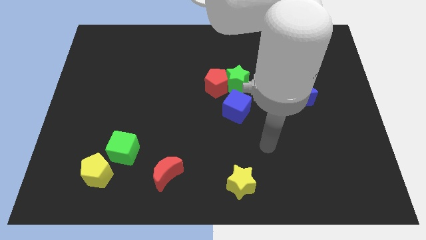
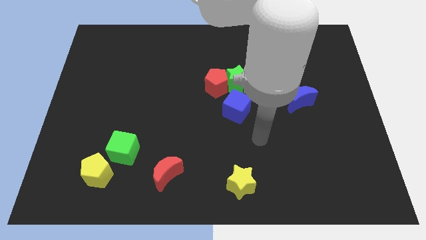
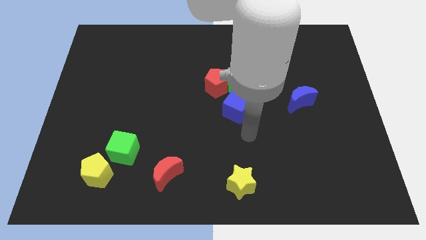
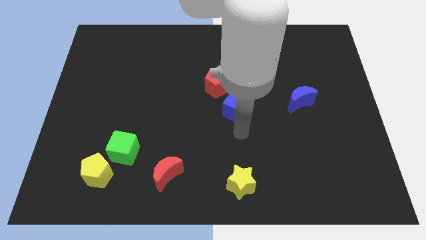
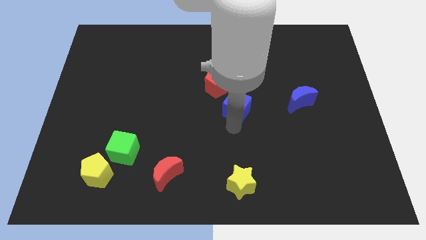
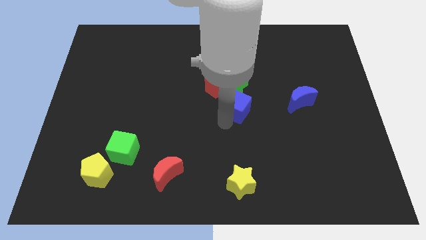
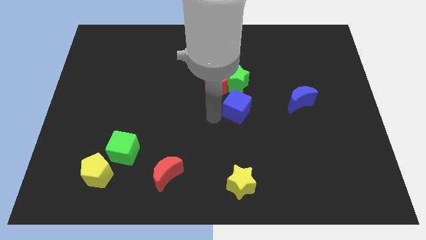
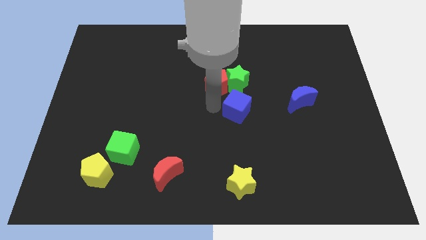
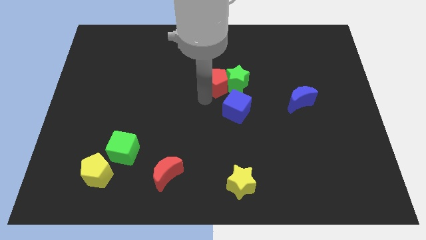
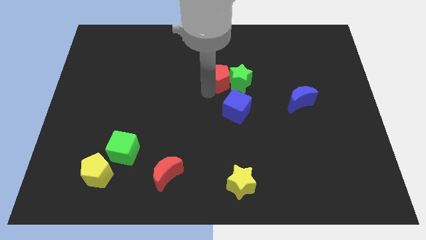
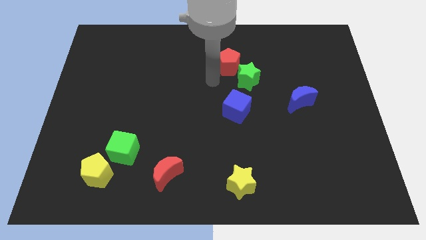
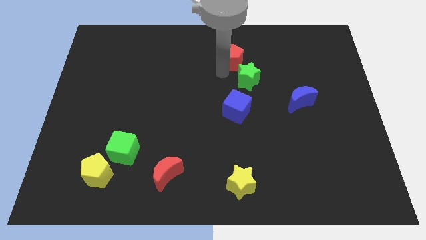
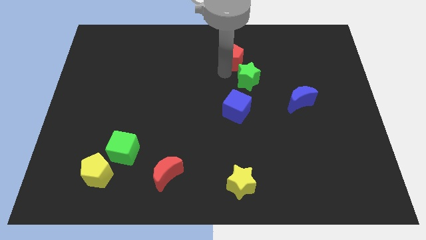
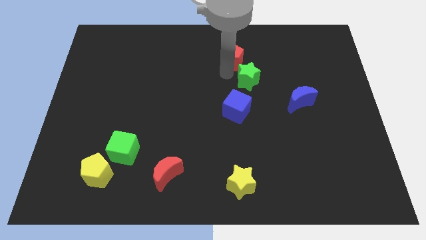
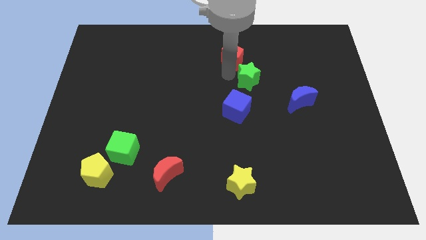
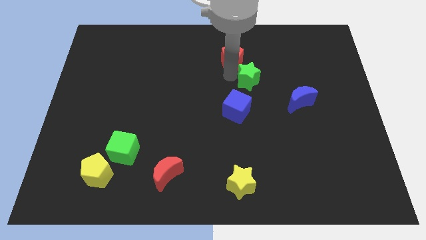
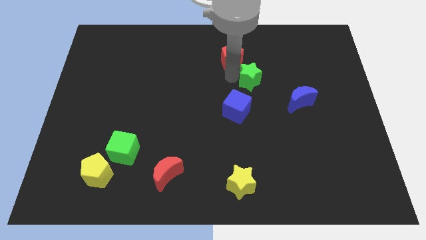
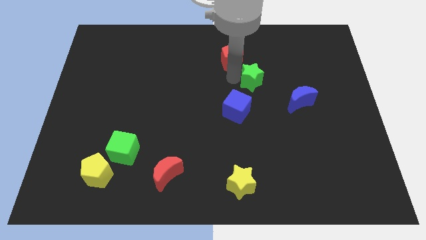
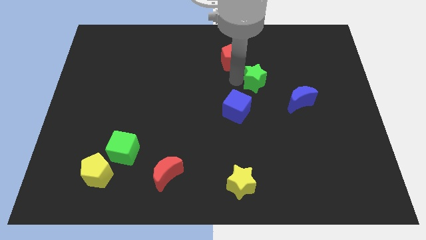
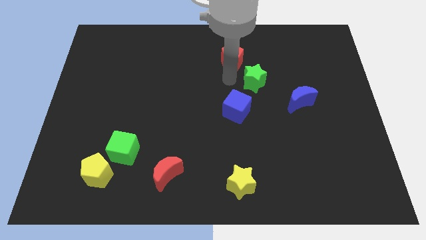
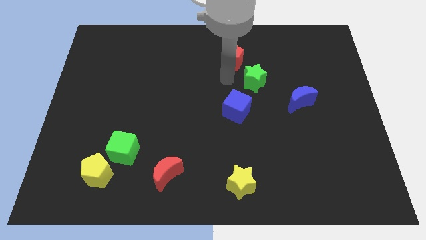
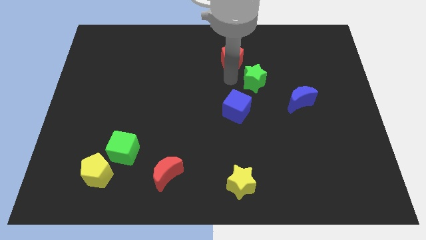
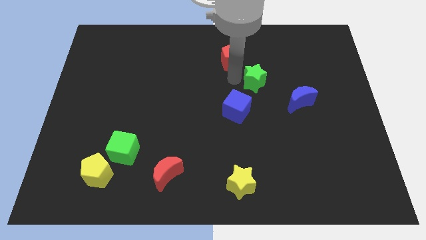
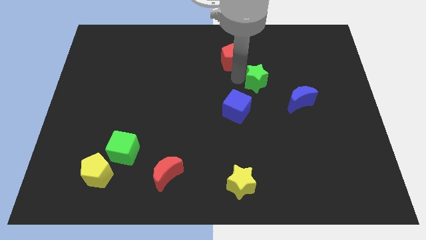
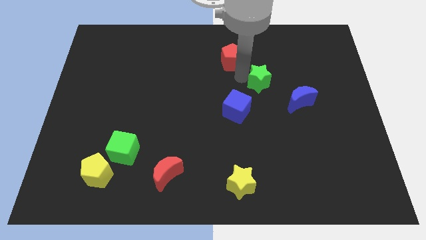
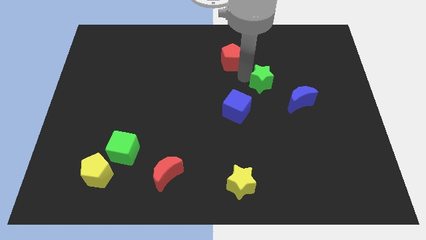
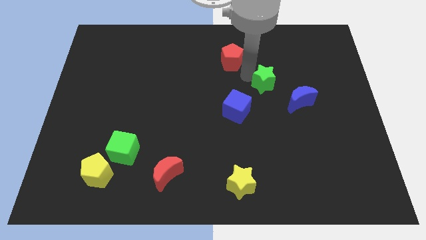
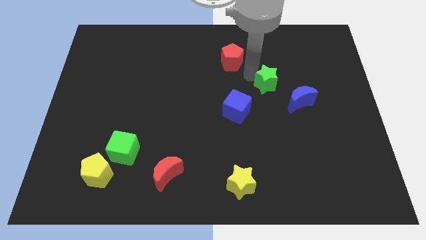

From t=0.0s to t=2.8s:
slightly slide the green star to the right

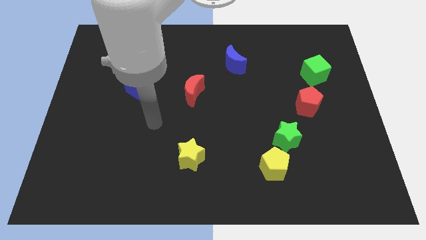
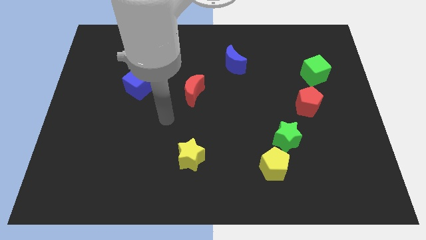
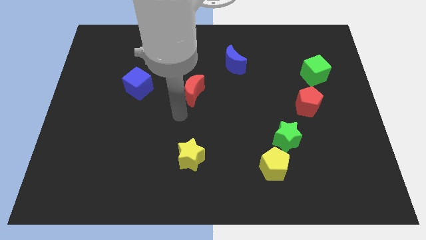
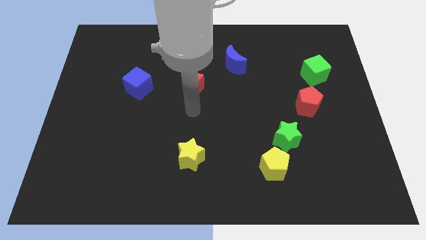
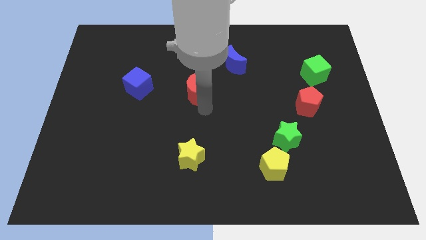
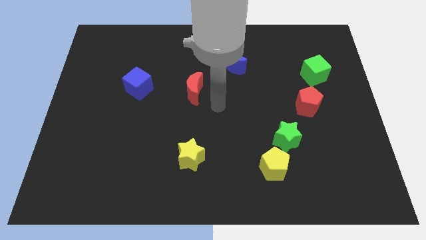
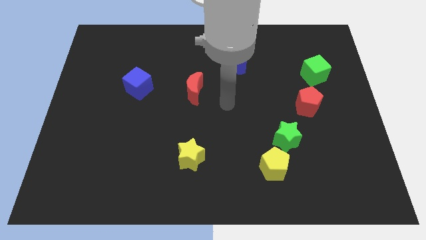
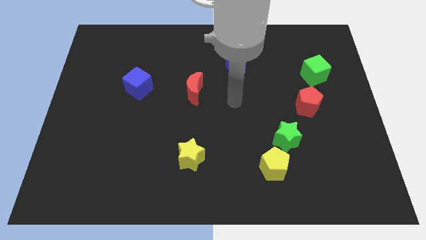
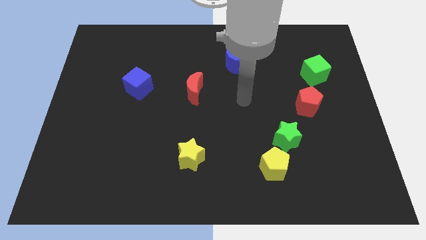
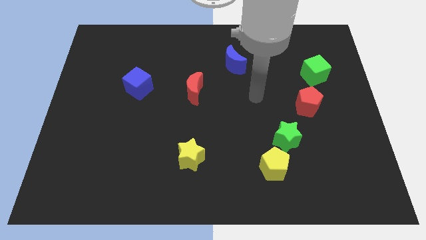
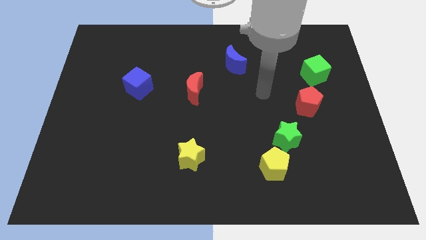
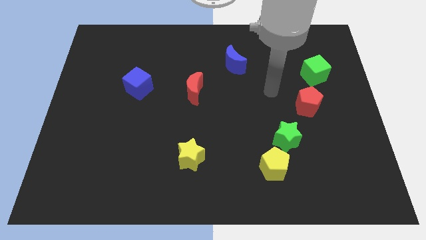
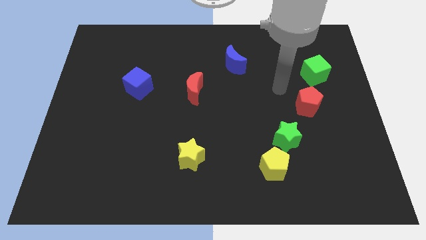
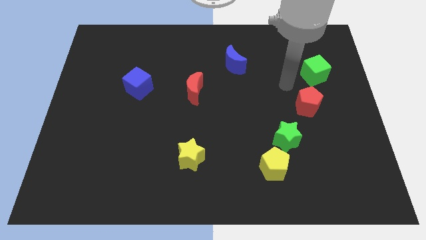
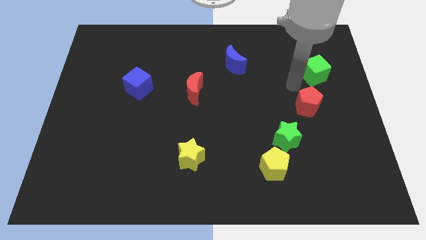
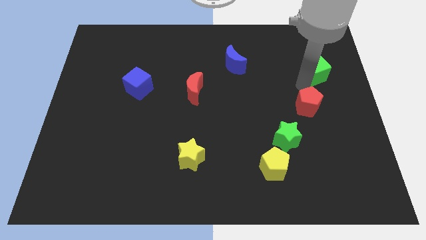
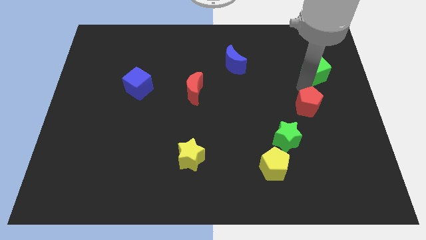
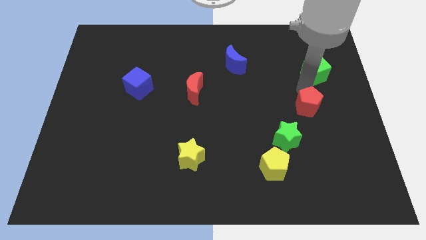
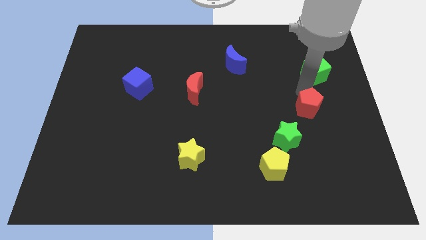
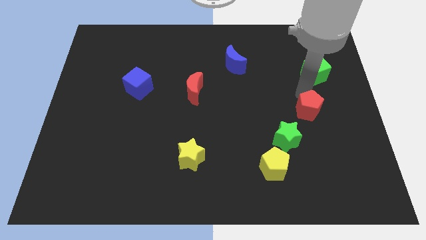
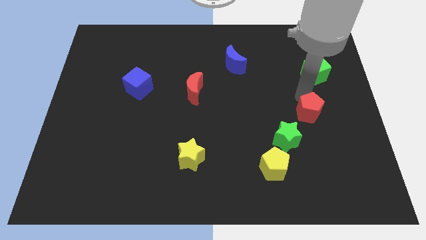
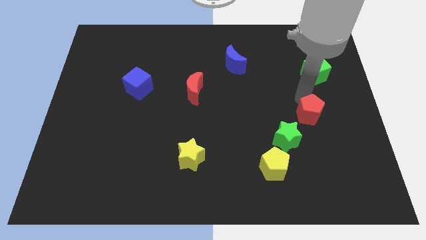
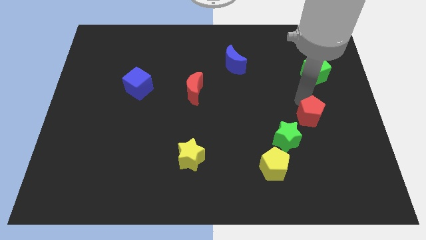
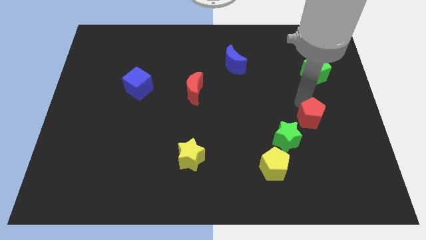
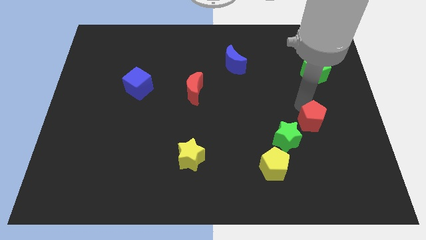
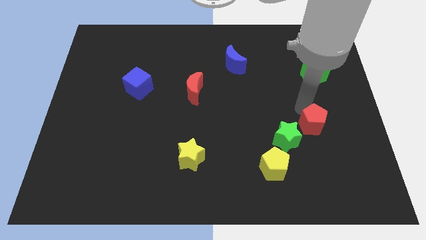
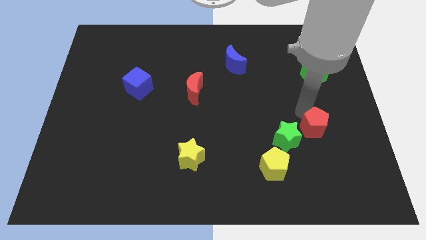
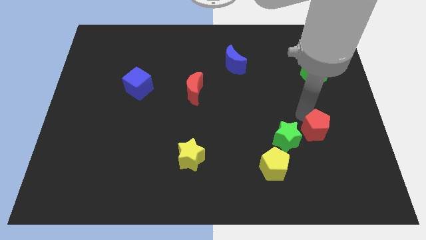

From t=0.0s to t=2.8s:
slightly slide the red pentagon down

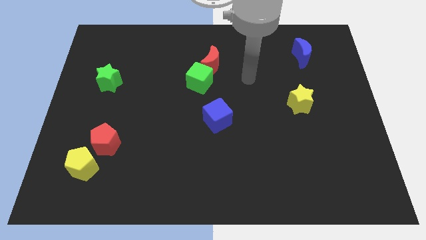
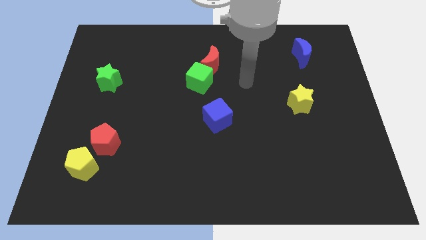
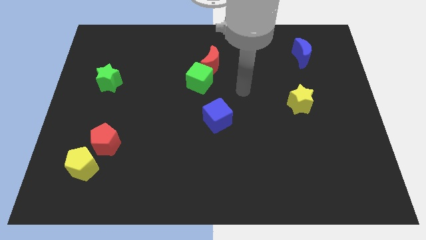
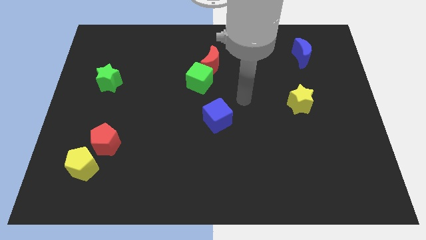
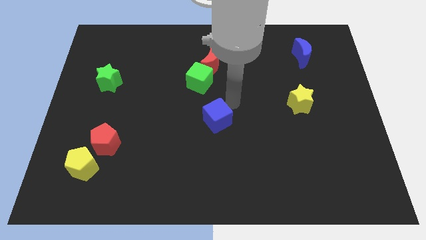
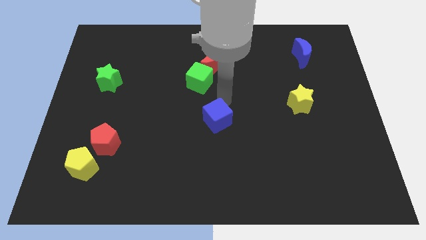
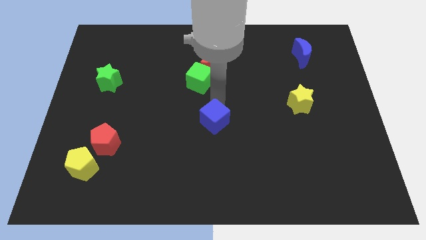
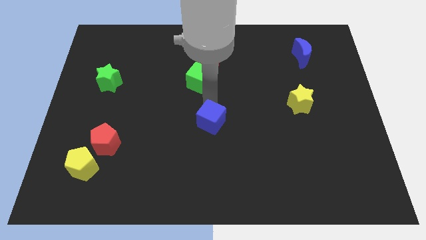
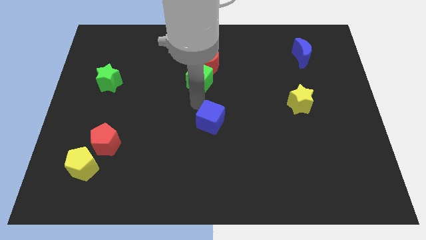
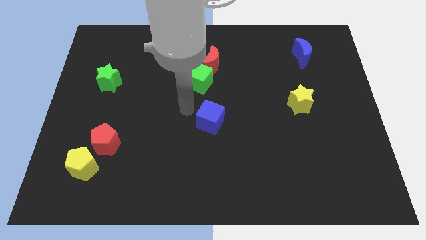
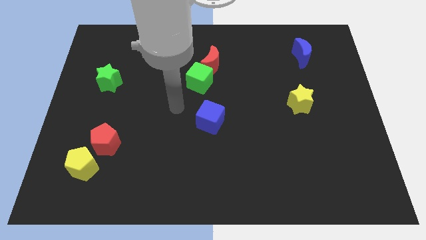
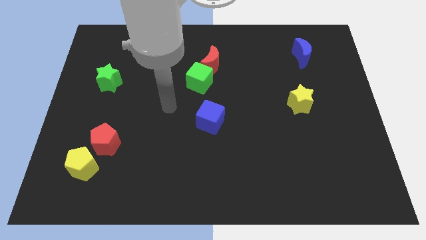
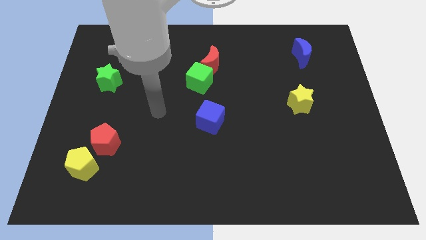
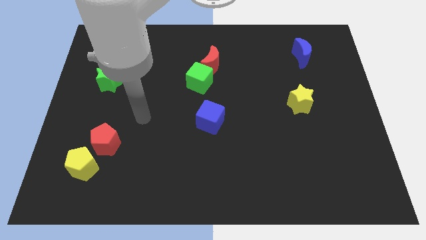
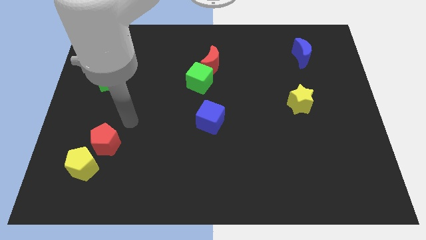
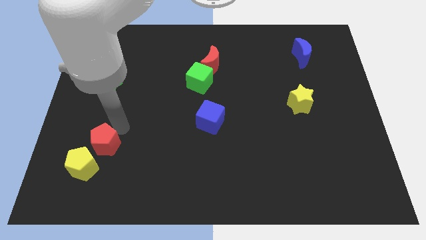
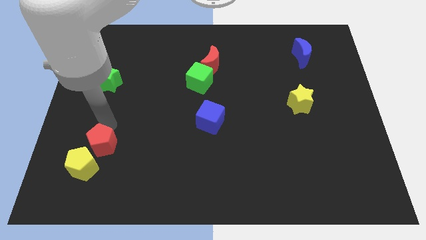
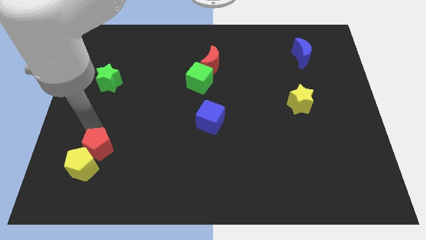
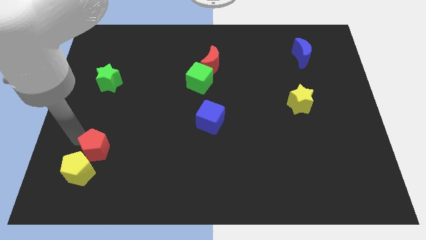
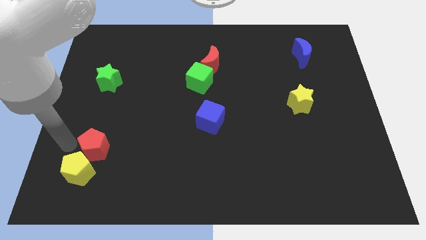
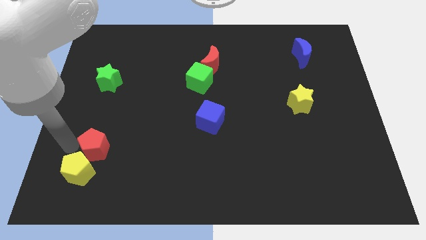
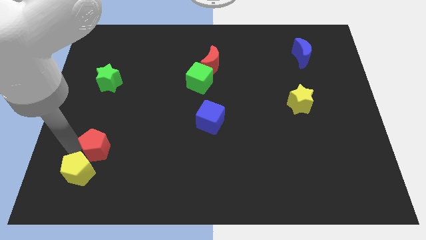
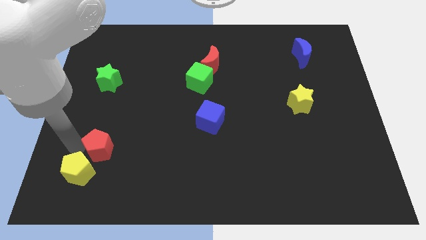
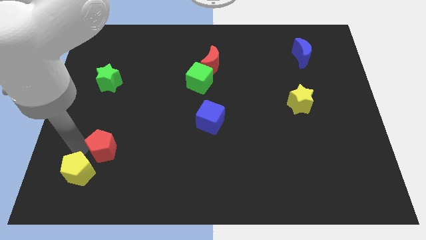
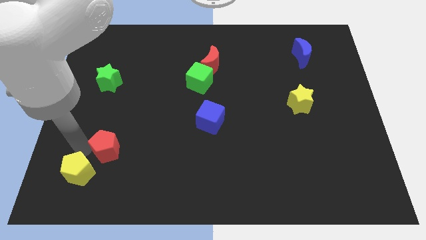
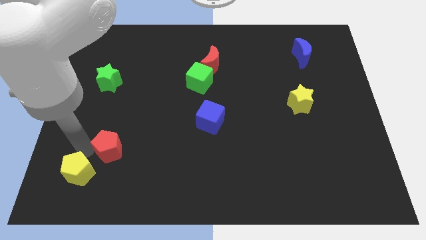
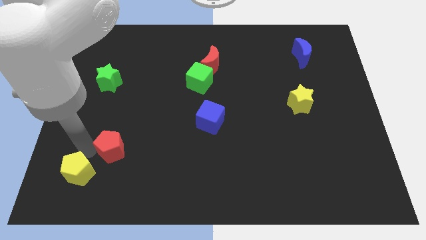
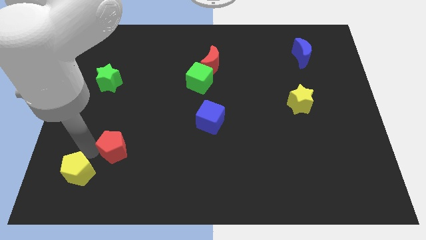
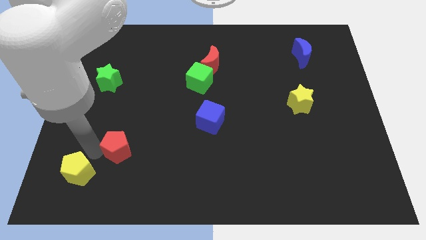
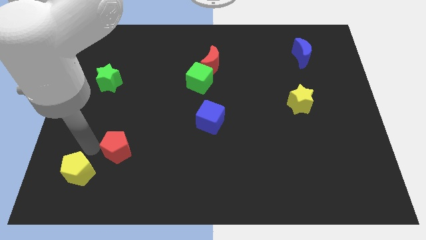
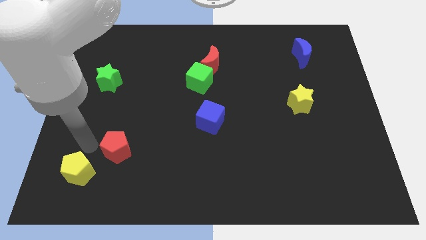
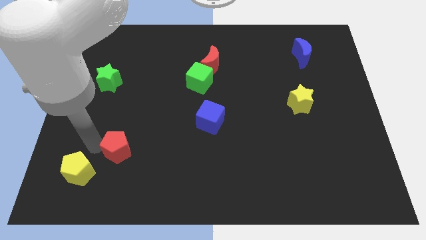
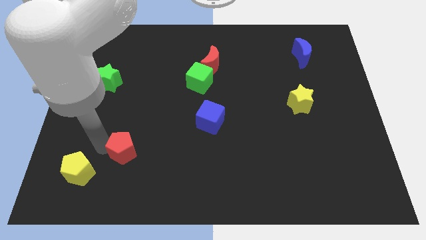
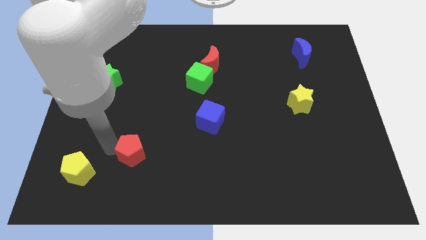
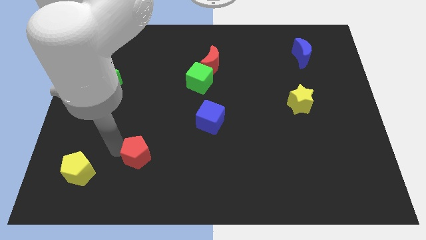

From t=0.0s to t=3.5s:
slide the red pentagon a little right
